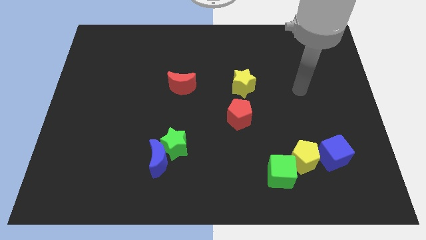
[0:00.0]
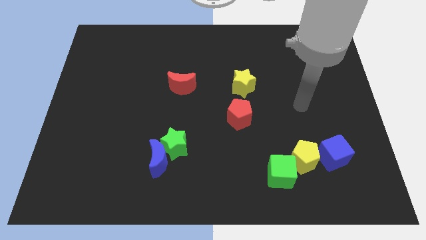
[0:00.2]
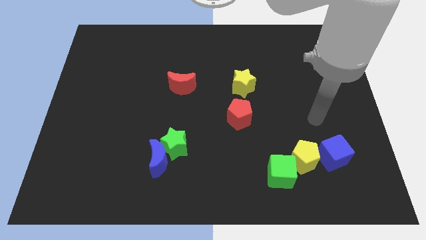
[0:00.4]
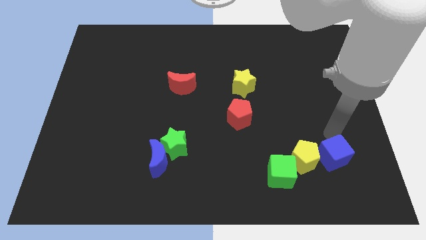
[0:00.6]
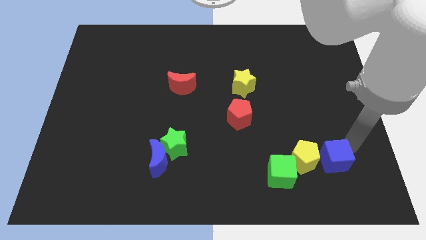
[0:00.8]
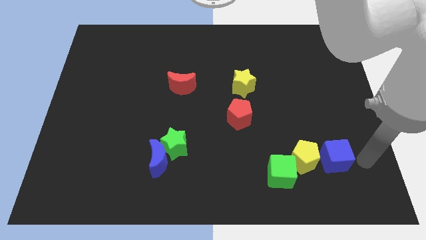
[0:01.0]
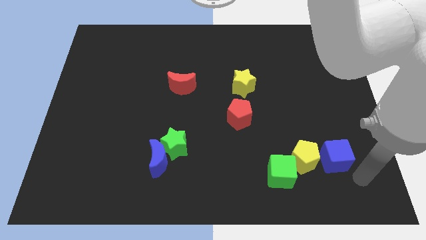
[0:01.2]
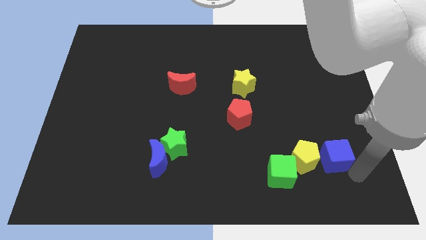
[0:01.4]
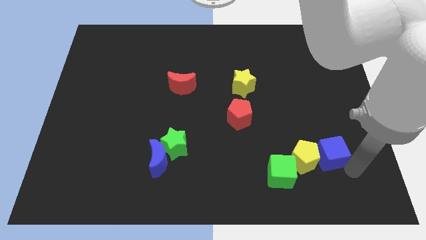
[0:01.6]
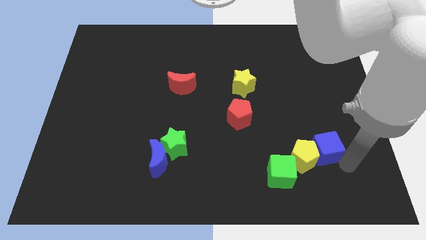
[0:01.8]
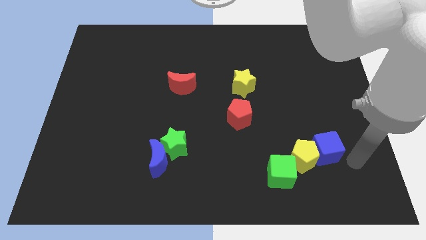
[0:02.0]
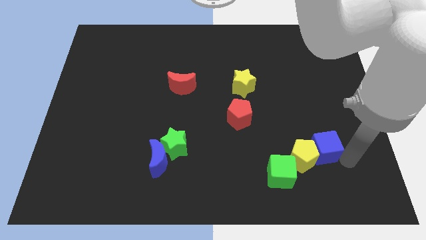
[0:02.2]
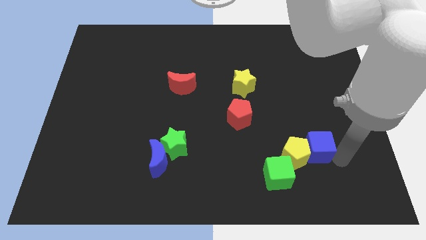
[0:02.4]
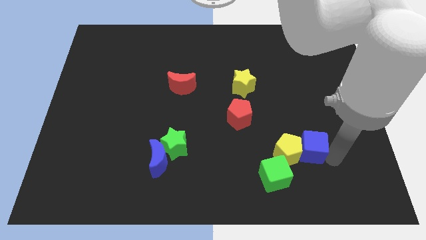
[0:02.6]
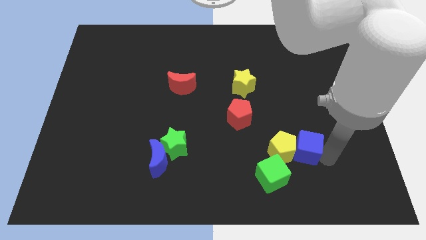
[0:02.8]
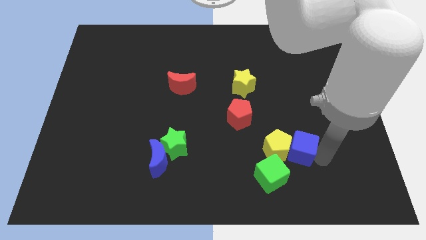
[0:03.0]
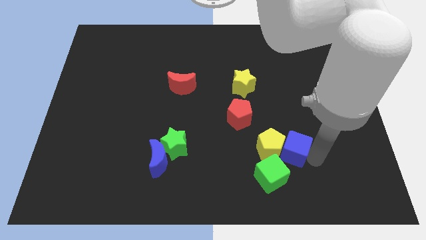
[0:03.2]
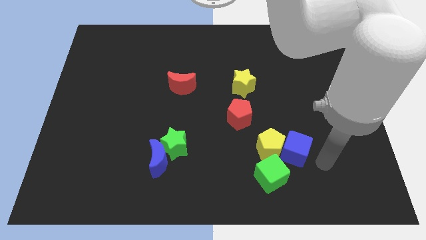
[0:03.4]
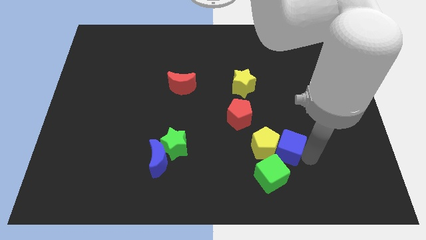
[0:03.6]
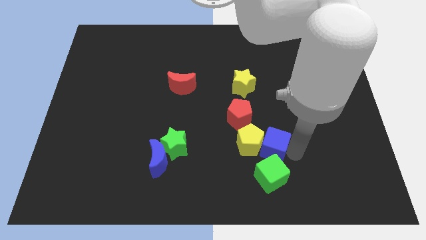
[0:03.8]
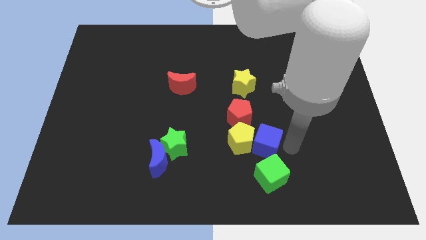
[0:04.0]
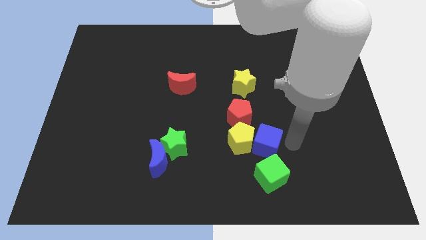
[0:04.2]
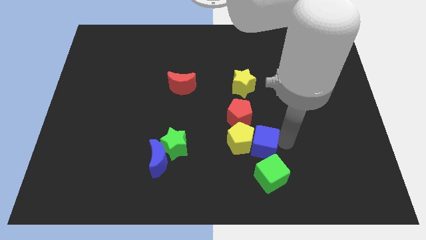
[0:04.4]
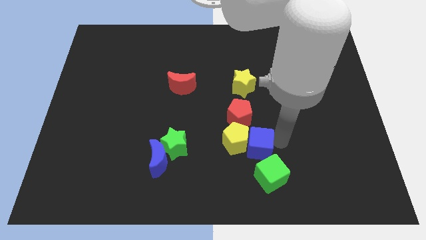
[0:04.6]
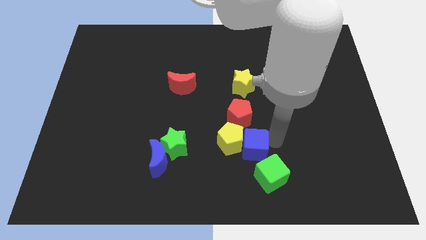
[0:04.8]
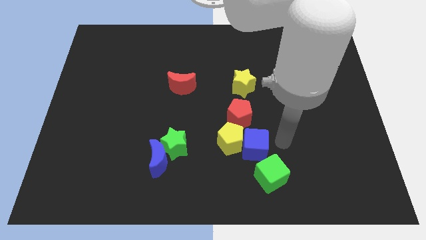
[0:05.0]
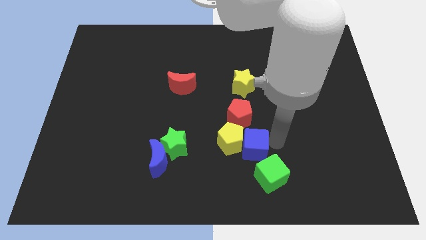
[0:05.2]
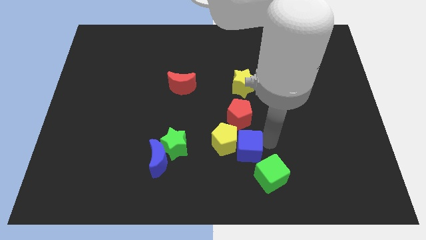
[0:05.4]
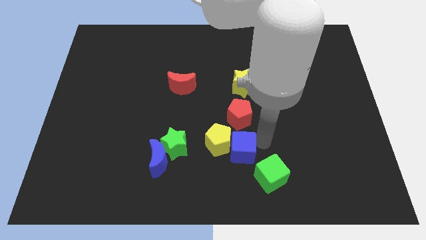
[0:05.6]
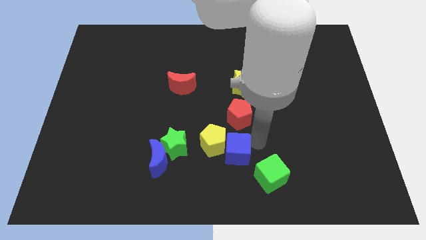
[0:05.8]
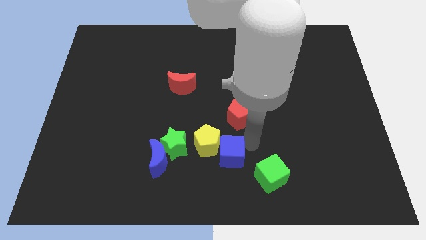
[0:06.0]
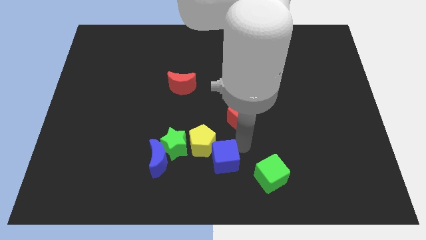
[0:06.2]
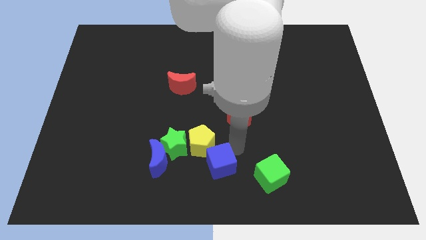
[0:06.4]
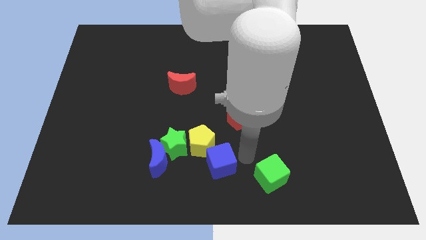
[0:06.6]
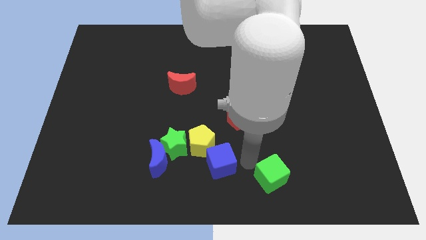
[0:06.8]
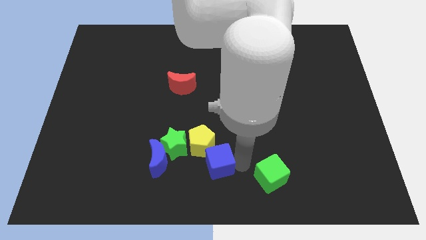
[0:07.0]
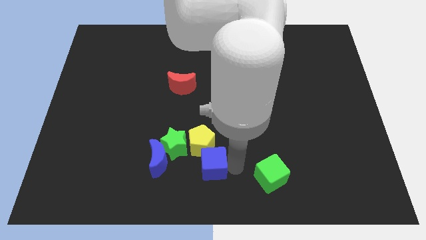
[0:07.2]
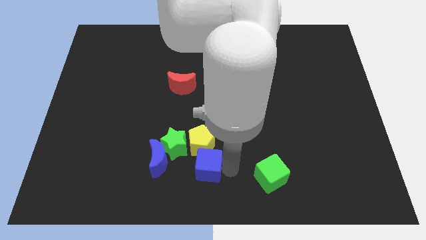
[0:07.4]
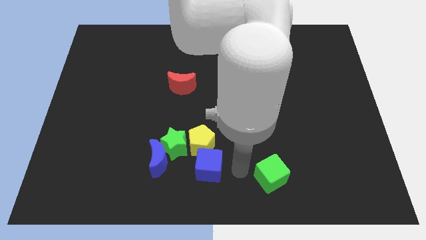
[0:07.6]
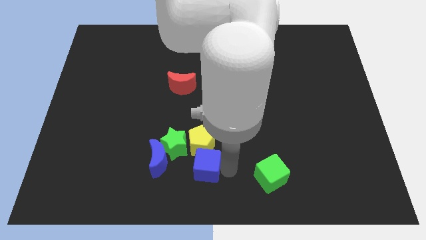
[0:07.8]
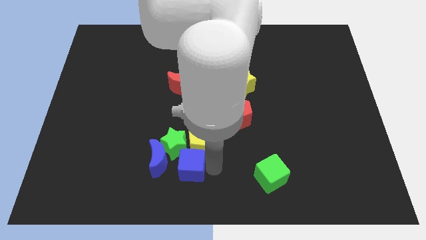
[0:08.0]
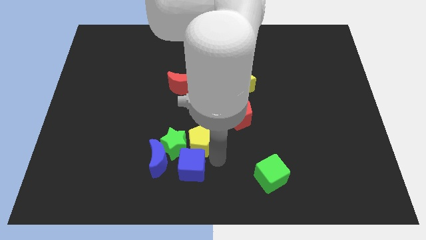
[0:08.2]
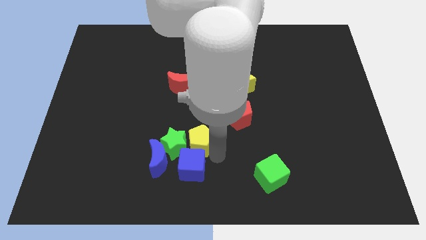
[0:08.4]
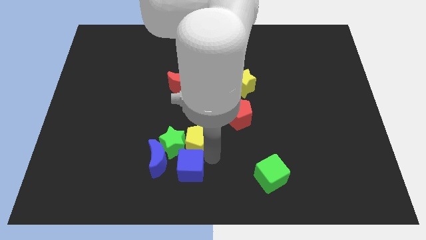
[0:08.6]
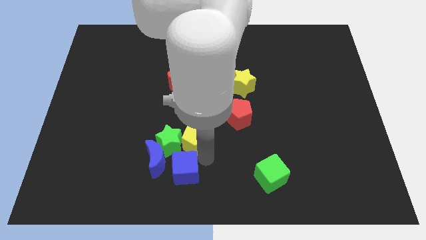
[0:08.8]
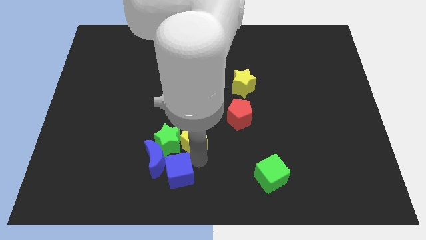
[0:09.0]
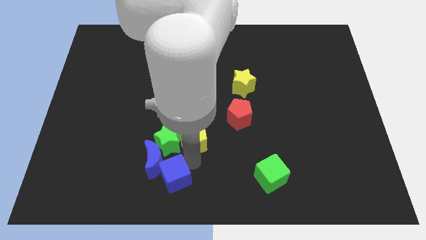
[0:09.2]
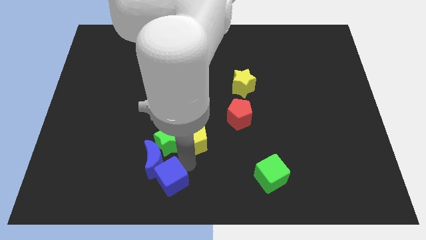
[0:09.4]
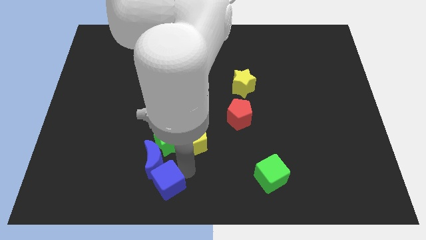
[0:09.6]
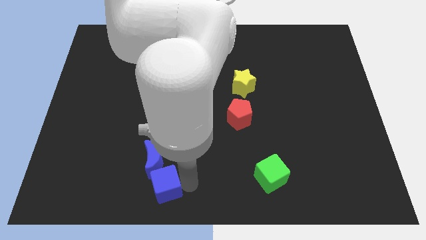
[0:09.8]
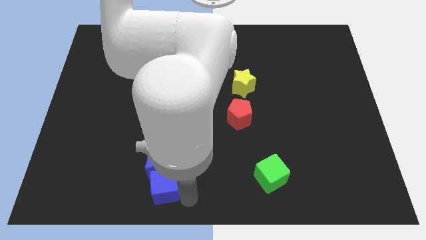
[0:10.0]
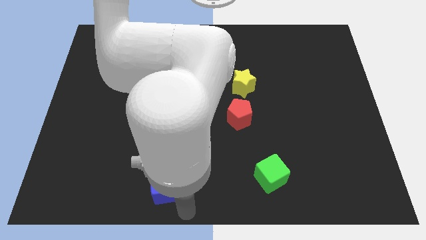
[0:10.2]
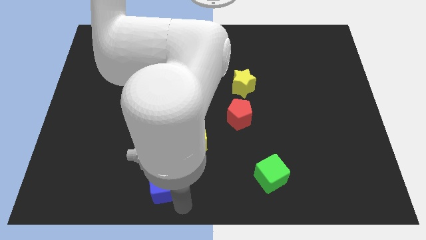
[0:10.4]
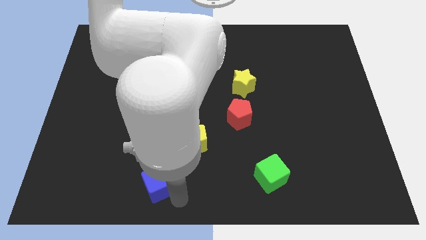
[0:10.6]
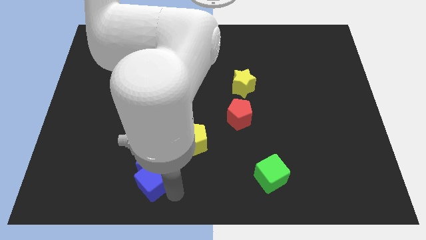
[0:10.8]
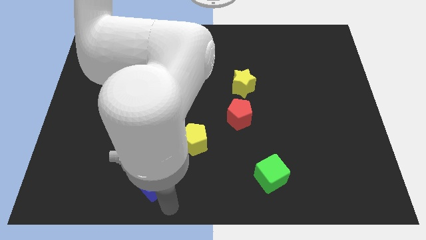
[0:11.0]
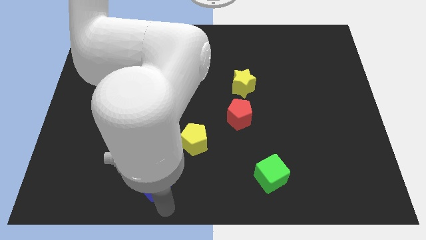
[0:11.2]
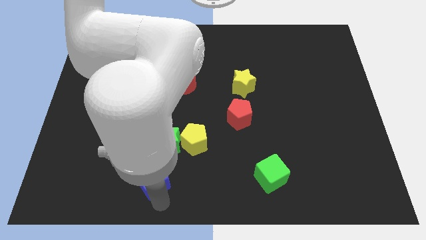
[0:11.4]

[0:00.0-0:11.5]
put the blue cube to the bottom left side of the green star

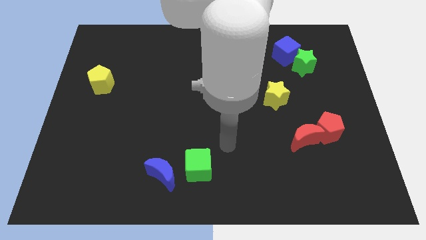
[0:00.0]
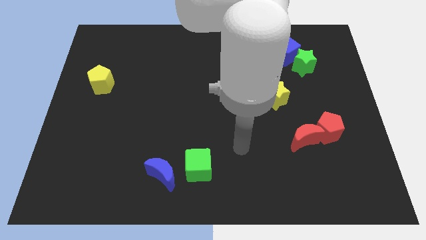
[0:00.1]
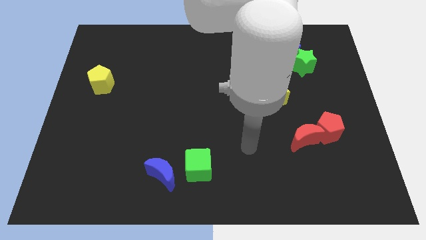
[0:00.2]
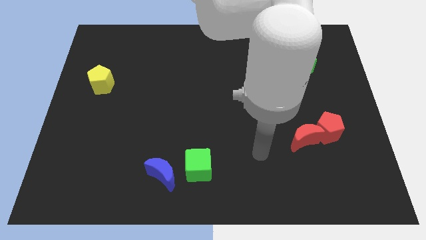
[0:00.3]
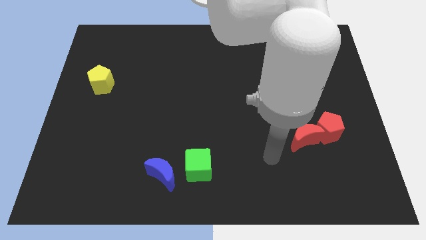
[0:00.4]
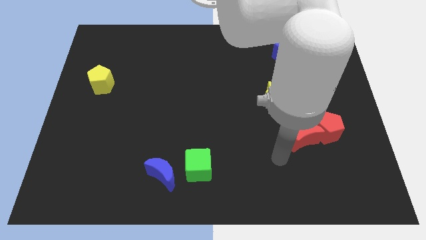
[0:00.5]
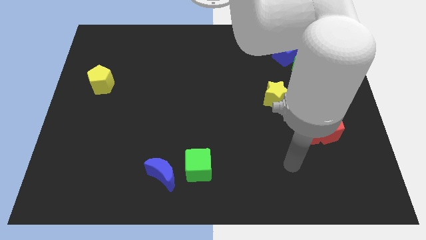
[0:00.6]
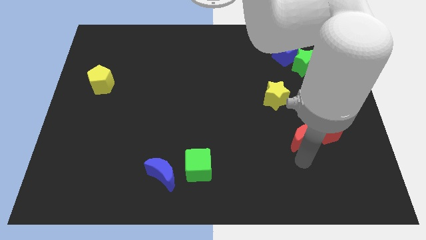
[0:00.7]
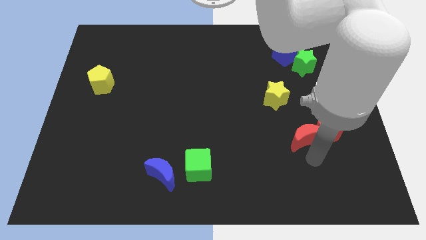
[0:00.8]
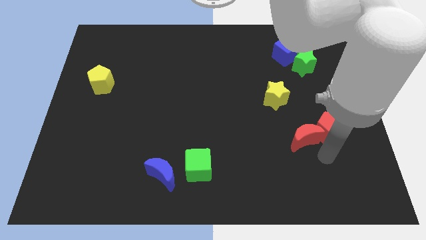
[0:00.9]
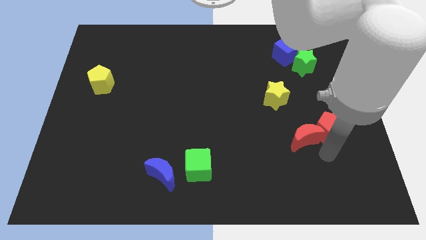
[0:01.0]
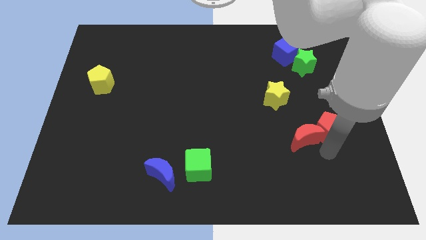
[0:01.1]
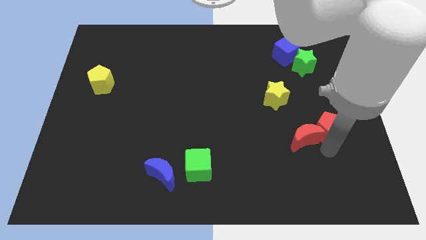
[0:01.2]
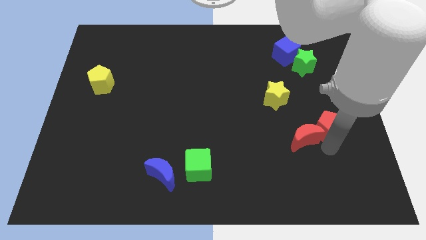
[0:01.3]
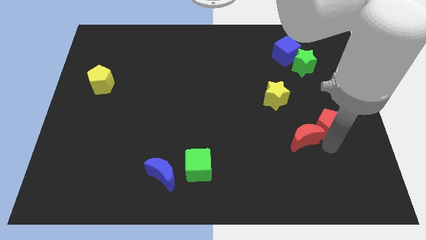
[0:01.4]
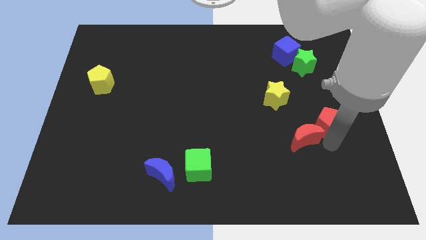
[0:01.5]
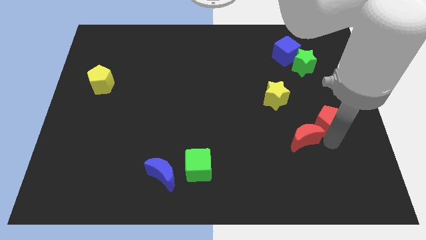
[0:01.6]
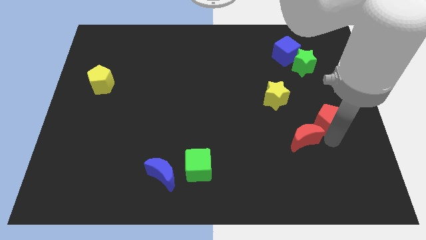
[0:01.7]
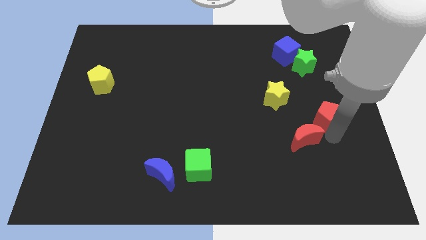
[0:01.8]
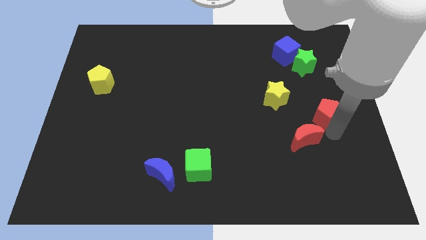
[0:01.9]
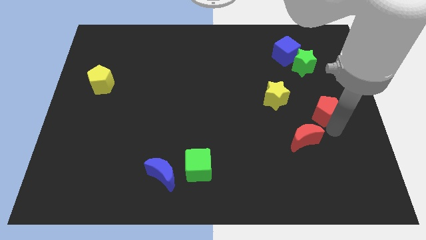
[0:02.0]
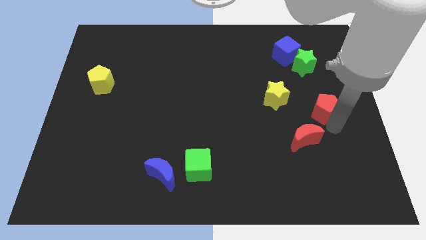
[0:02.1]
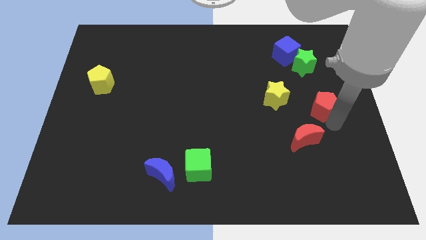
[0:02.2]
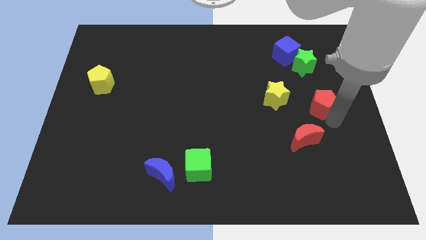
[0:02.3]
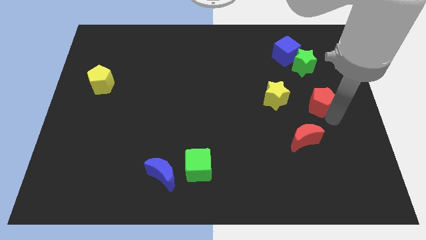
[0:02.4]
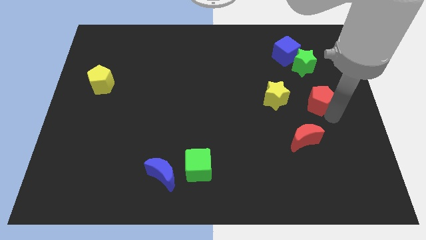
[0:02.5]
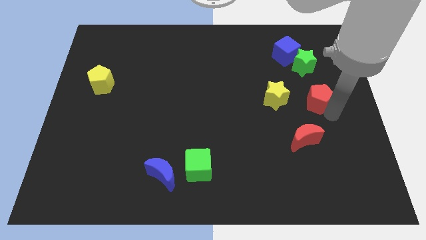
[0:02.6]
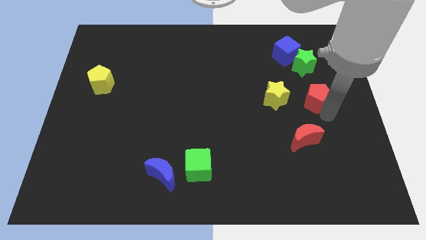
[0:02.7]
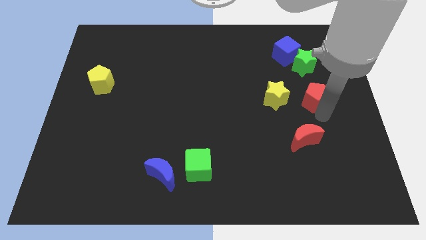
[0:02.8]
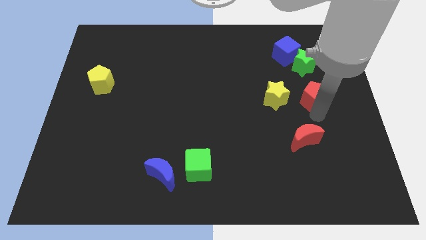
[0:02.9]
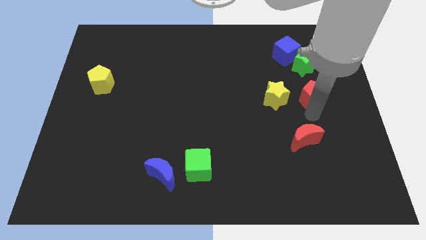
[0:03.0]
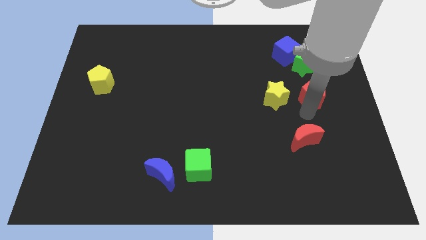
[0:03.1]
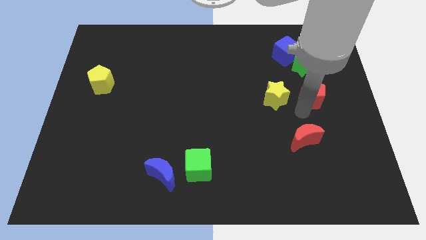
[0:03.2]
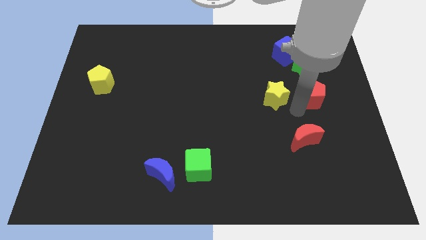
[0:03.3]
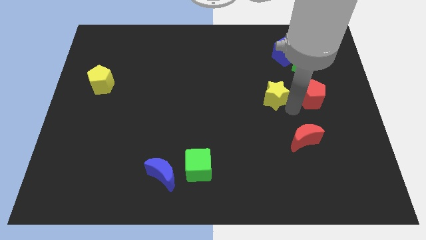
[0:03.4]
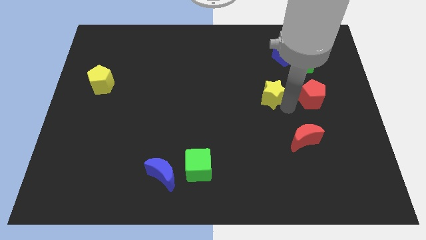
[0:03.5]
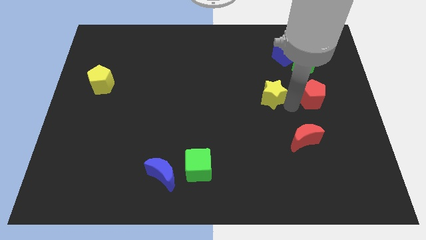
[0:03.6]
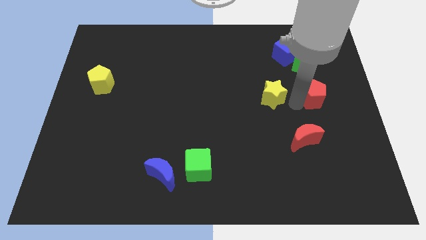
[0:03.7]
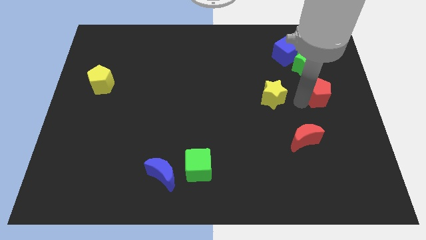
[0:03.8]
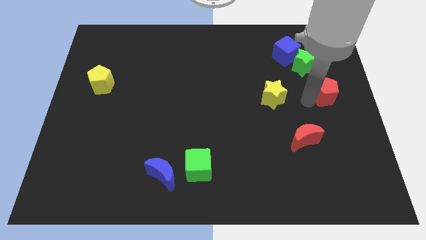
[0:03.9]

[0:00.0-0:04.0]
put the red pentagon diagonally down and to the right of the green star
